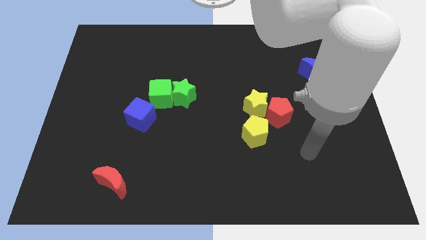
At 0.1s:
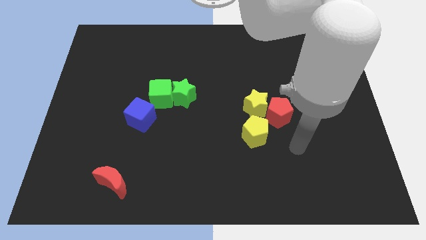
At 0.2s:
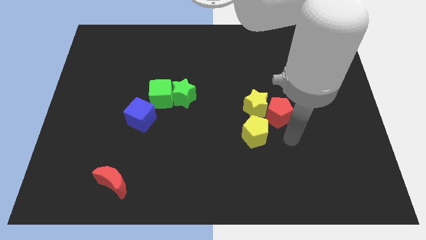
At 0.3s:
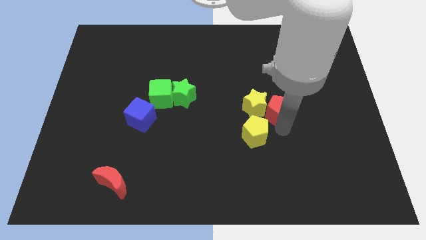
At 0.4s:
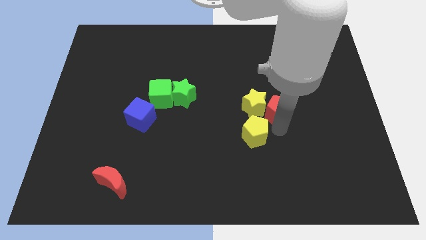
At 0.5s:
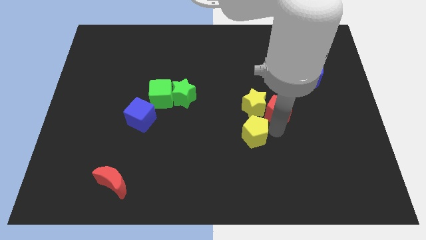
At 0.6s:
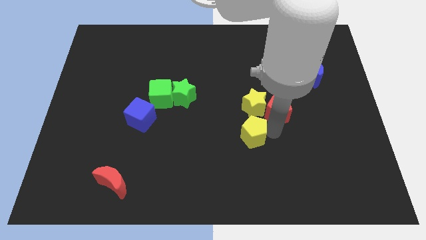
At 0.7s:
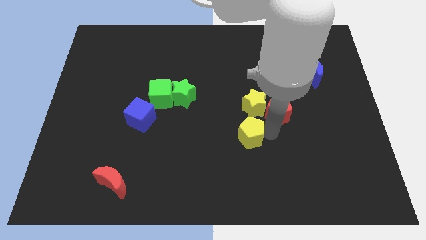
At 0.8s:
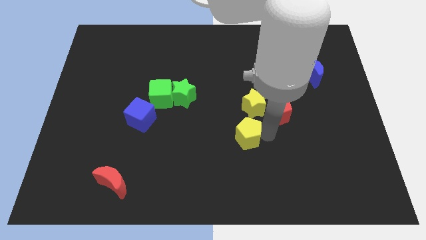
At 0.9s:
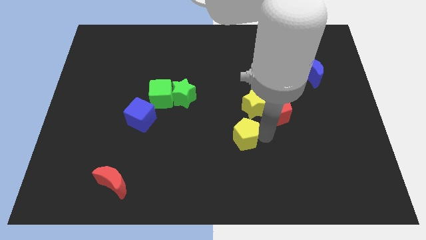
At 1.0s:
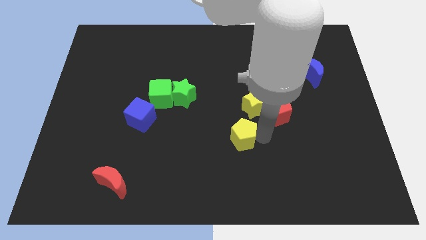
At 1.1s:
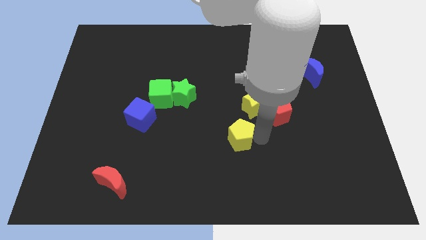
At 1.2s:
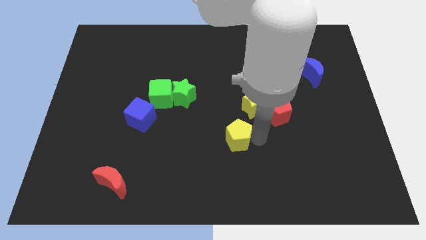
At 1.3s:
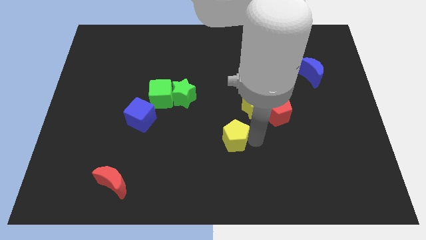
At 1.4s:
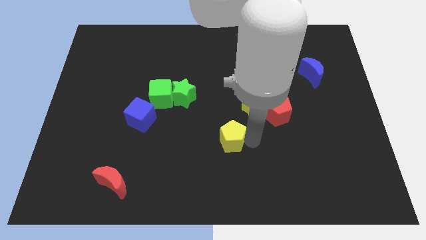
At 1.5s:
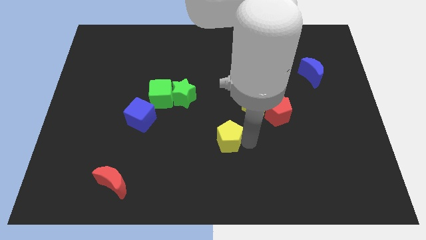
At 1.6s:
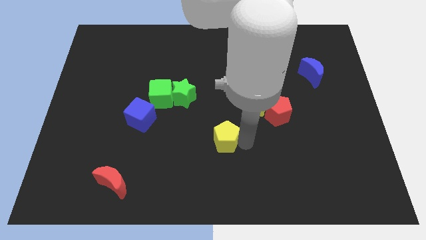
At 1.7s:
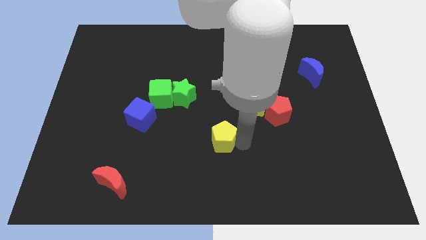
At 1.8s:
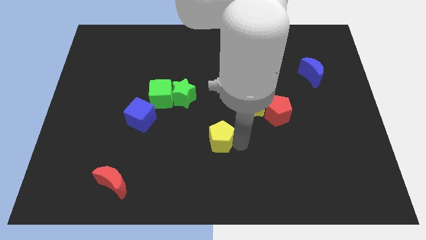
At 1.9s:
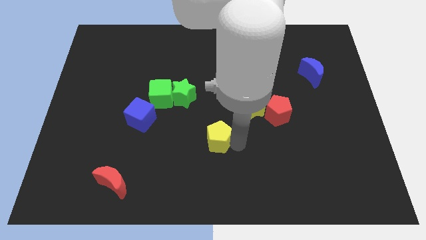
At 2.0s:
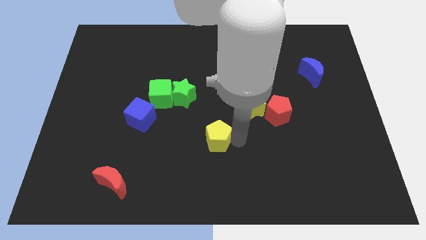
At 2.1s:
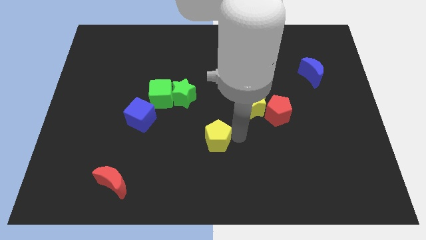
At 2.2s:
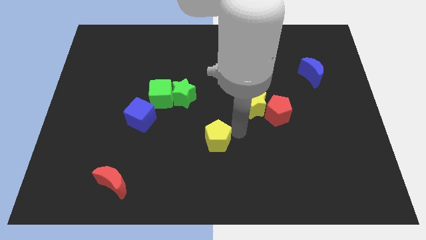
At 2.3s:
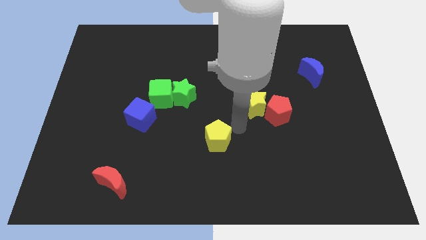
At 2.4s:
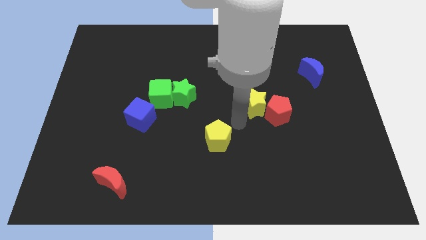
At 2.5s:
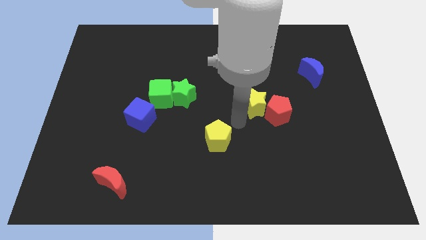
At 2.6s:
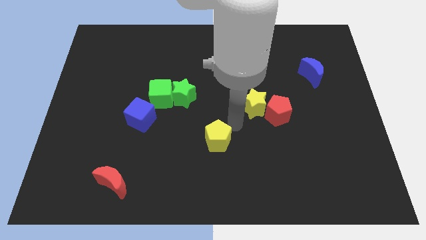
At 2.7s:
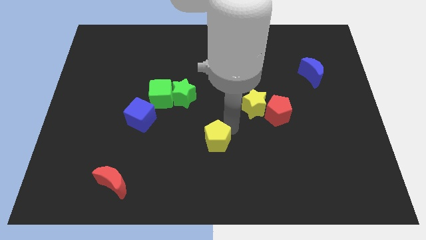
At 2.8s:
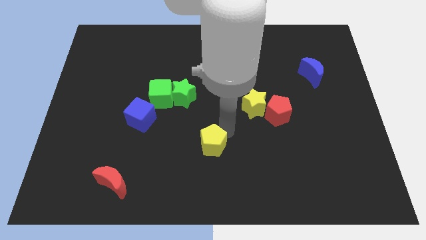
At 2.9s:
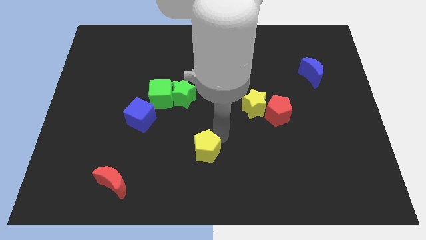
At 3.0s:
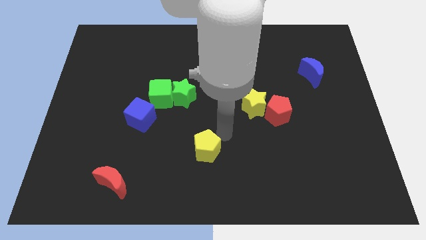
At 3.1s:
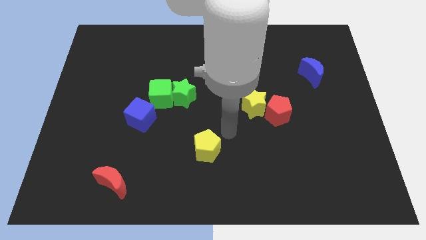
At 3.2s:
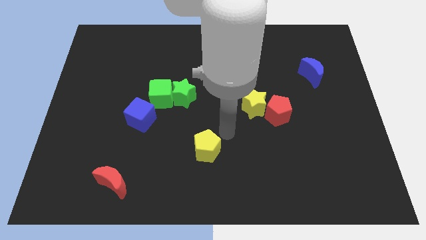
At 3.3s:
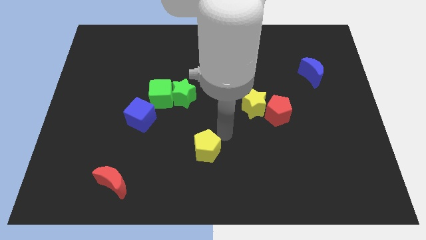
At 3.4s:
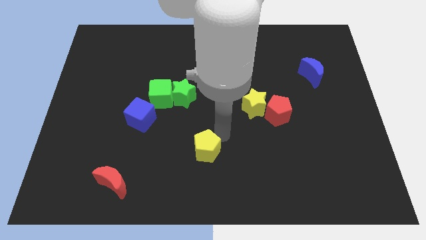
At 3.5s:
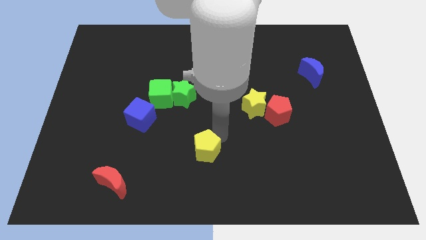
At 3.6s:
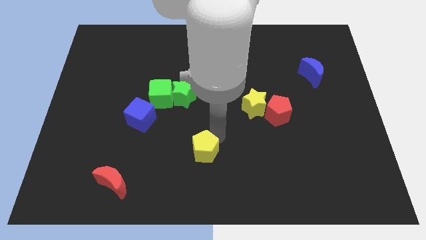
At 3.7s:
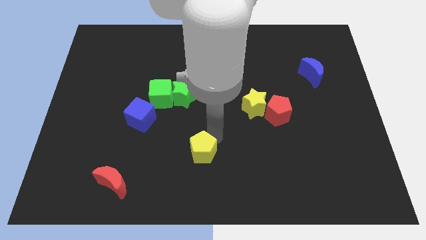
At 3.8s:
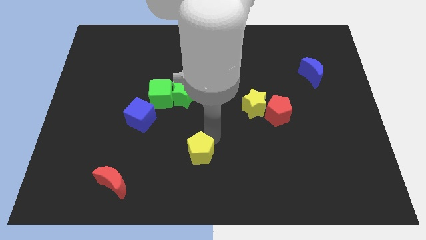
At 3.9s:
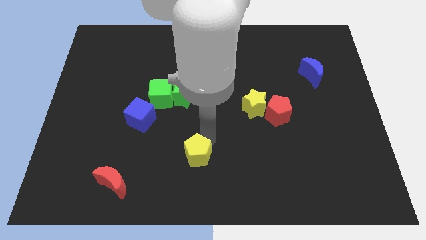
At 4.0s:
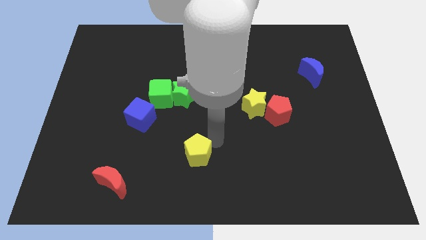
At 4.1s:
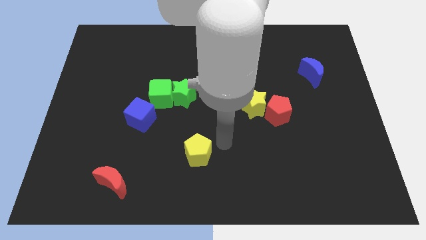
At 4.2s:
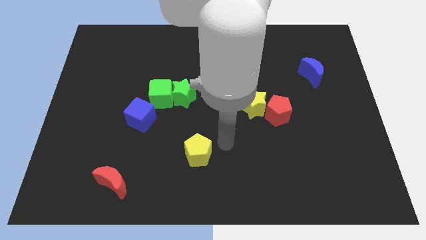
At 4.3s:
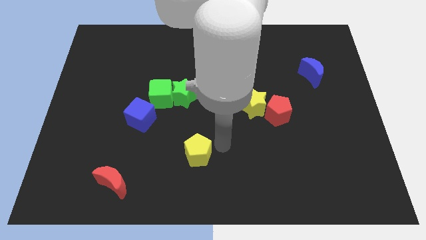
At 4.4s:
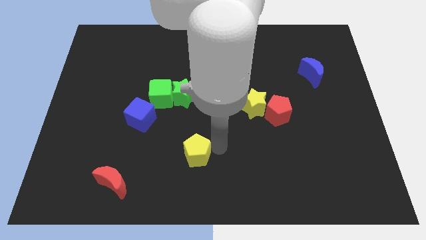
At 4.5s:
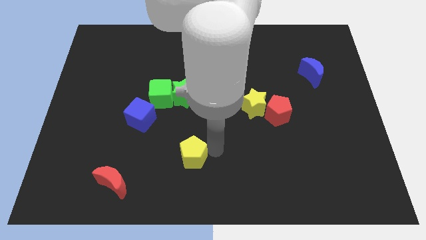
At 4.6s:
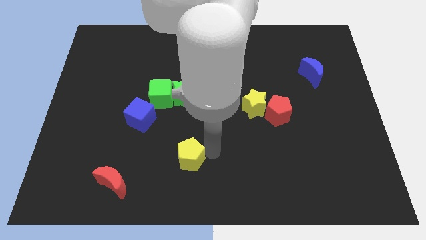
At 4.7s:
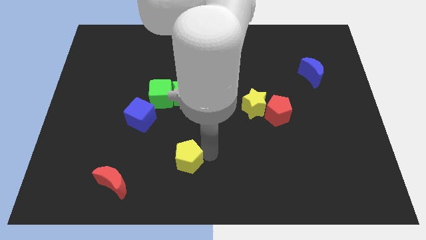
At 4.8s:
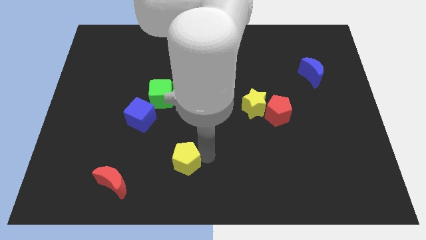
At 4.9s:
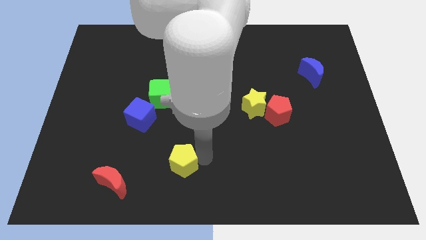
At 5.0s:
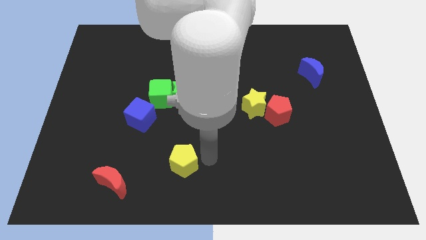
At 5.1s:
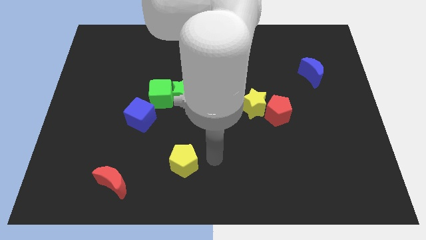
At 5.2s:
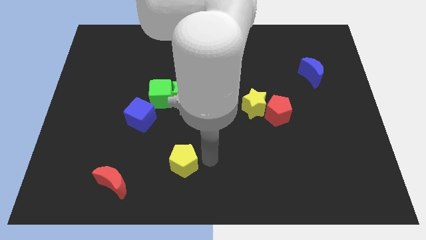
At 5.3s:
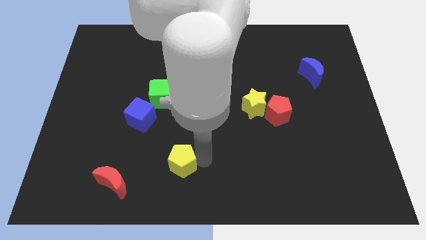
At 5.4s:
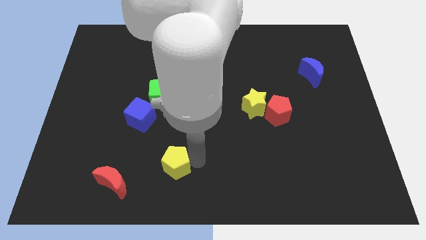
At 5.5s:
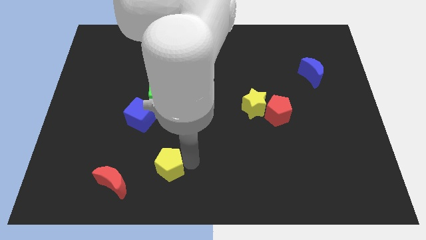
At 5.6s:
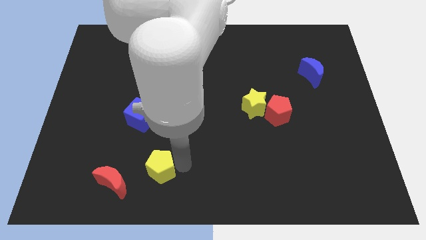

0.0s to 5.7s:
move the yellow pentagon to the top right side of the red moon
